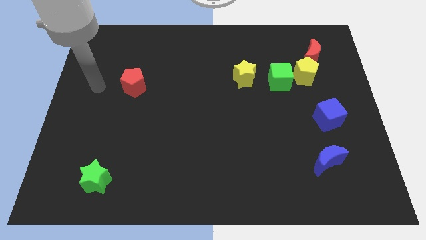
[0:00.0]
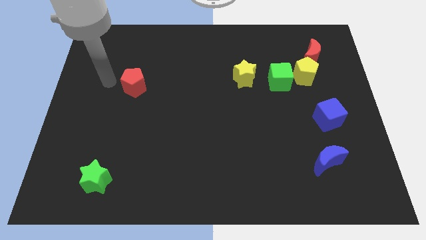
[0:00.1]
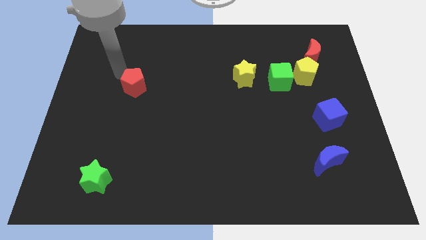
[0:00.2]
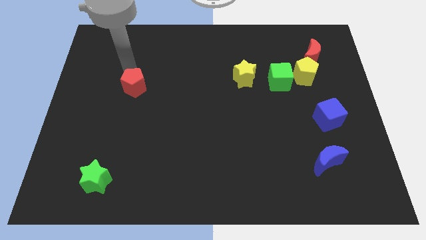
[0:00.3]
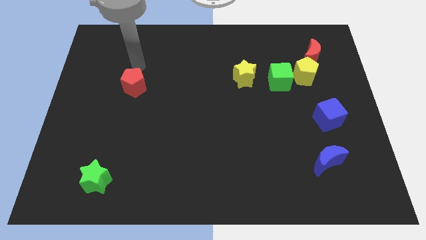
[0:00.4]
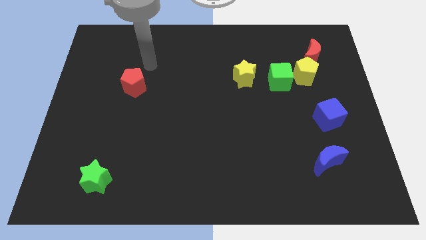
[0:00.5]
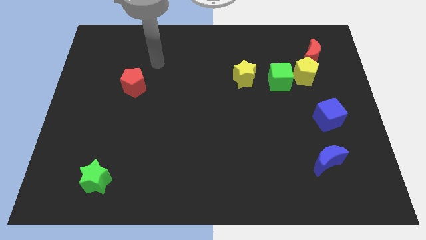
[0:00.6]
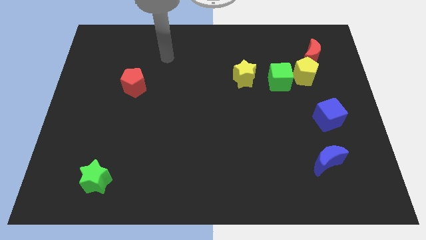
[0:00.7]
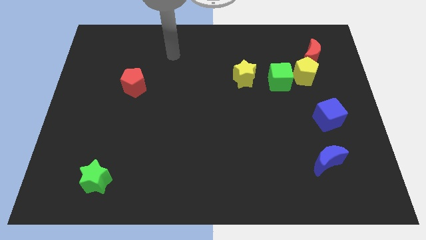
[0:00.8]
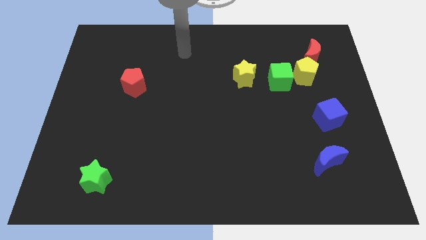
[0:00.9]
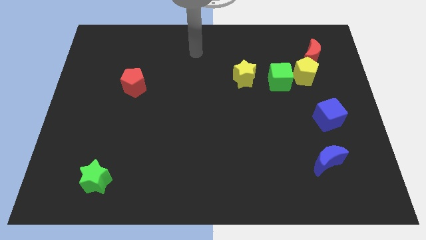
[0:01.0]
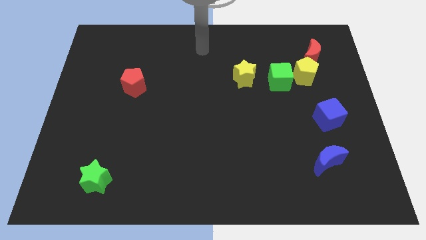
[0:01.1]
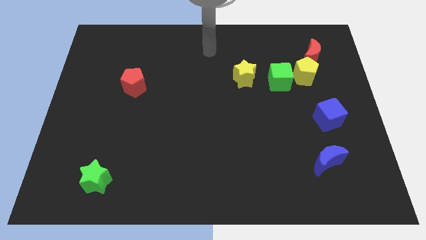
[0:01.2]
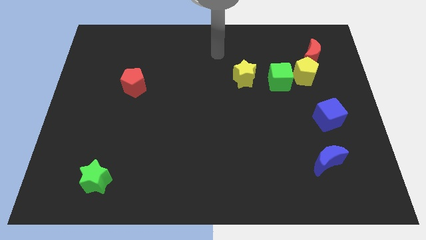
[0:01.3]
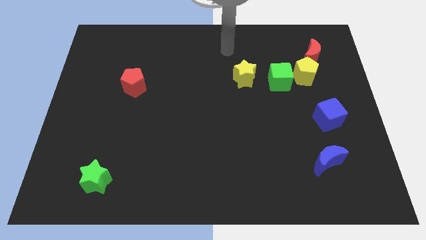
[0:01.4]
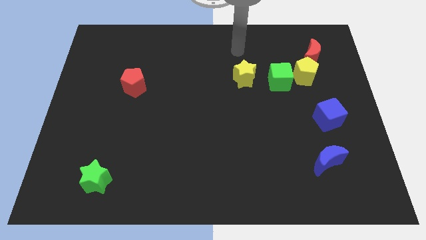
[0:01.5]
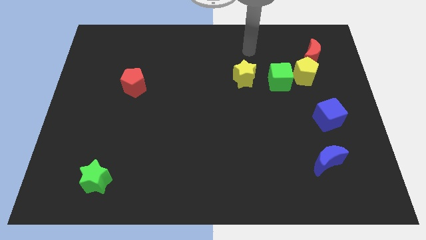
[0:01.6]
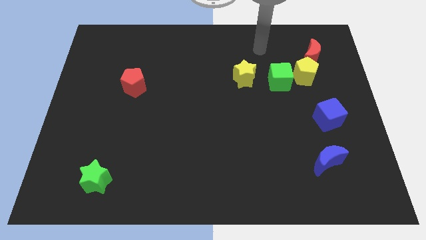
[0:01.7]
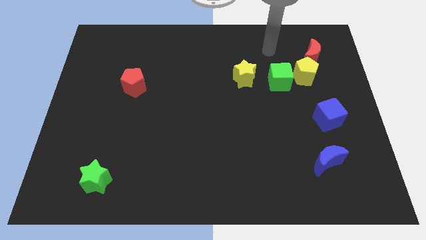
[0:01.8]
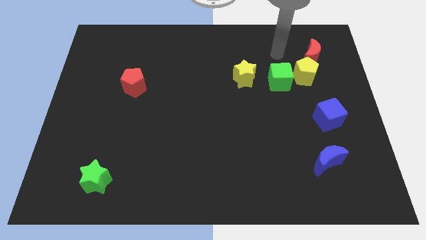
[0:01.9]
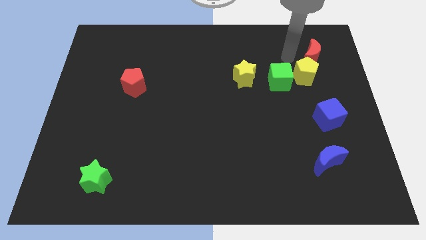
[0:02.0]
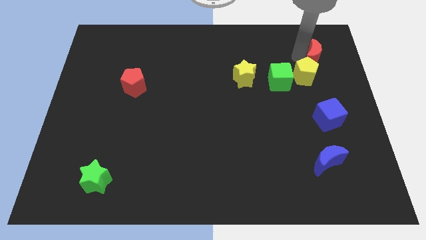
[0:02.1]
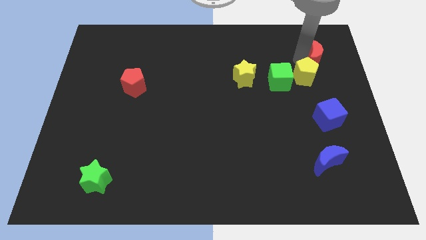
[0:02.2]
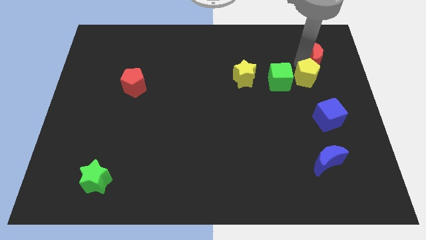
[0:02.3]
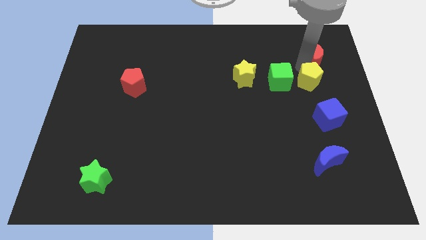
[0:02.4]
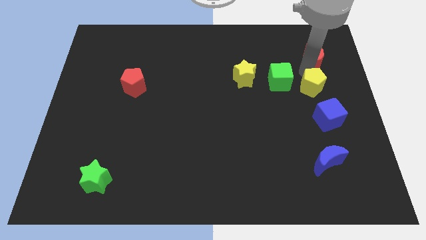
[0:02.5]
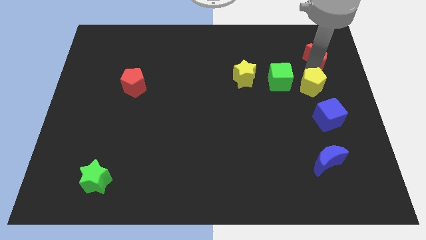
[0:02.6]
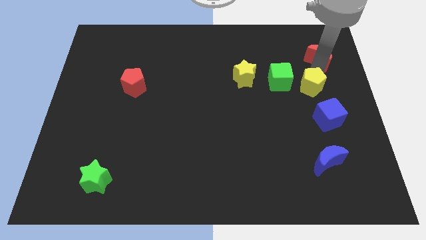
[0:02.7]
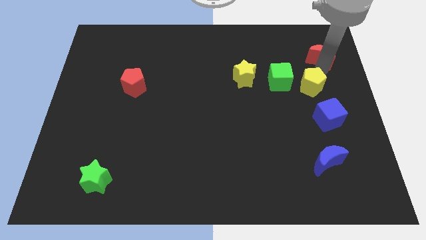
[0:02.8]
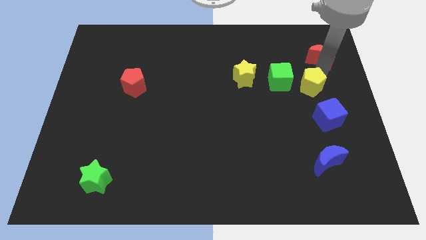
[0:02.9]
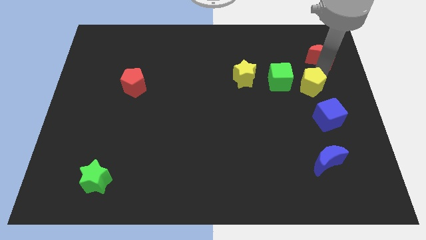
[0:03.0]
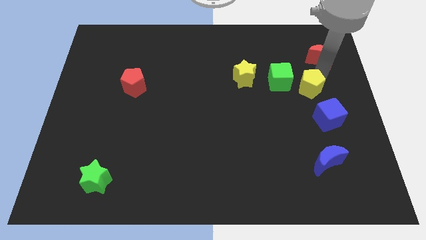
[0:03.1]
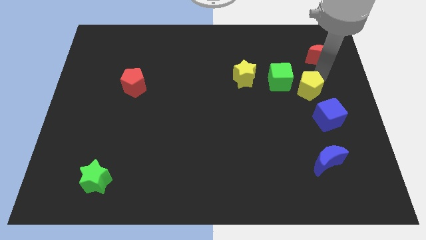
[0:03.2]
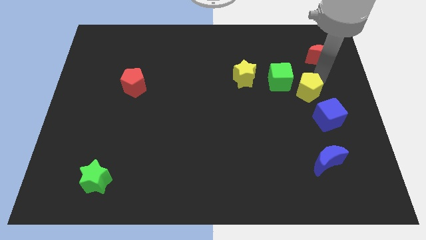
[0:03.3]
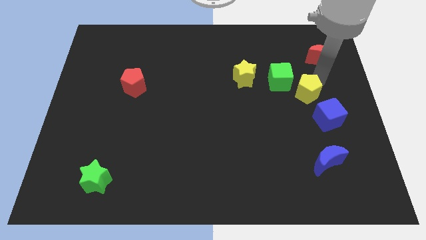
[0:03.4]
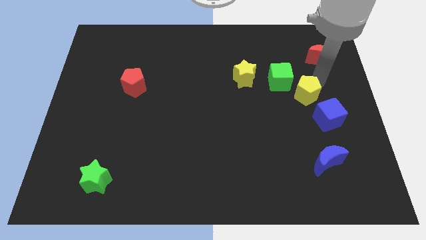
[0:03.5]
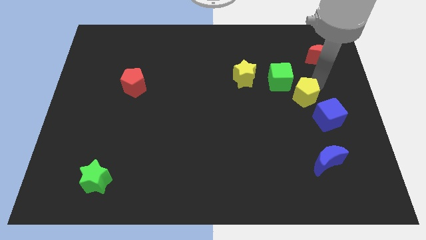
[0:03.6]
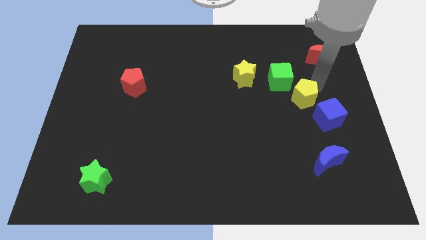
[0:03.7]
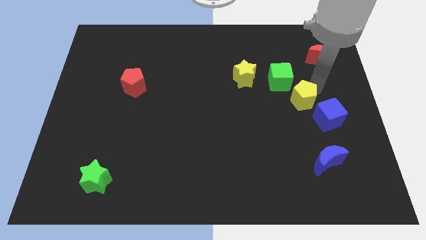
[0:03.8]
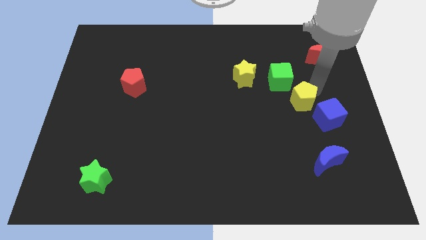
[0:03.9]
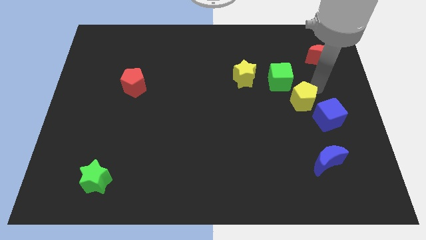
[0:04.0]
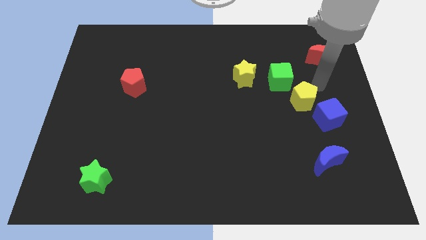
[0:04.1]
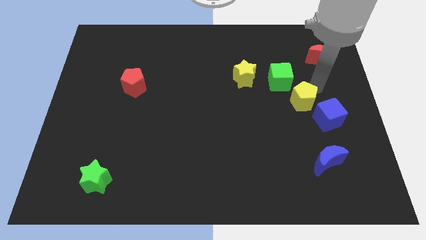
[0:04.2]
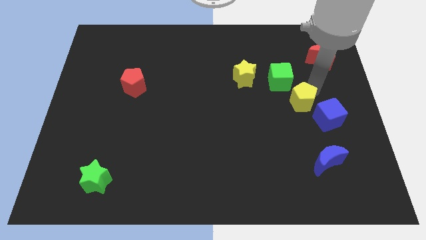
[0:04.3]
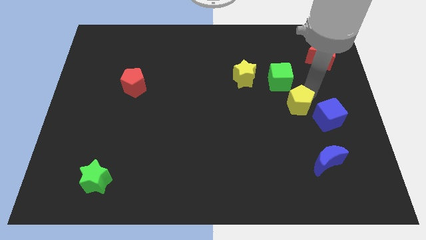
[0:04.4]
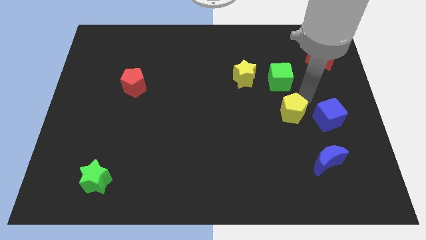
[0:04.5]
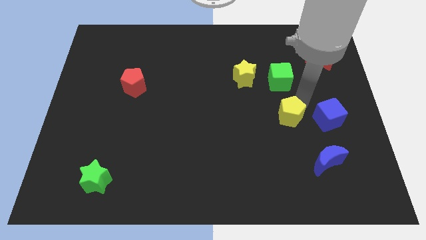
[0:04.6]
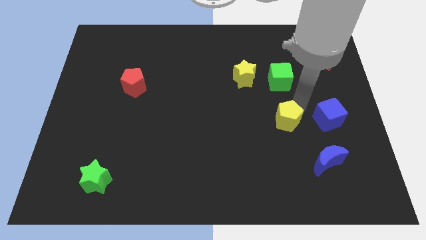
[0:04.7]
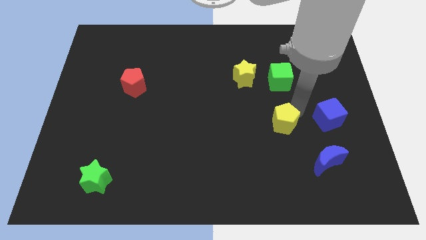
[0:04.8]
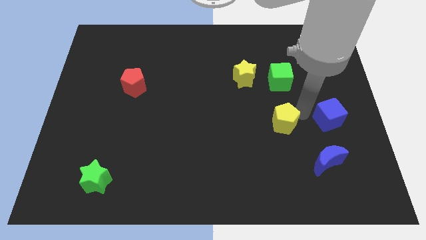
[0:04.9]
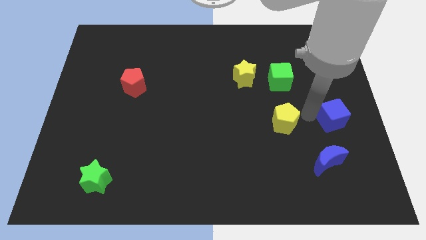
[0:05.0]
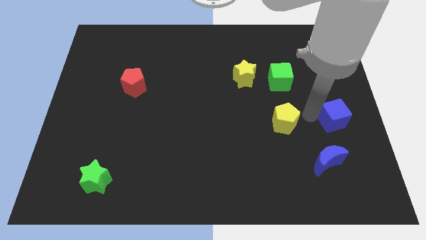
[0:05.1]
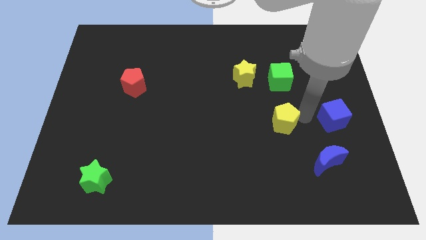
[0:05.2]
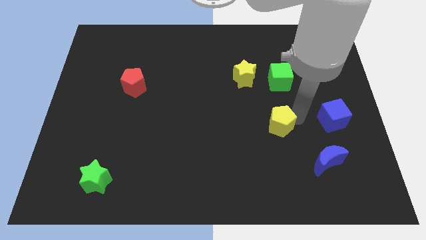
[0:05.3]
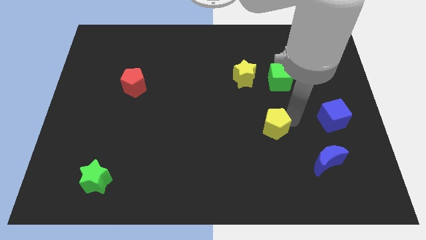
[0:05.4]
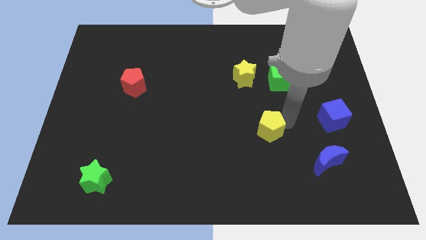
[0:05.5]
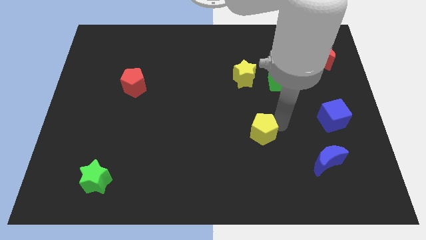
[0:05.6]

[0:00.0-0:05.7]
push the yellow pentagon down and then to the left

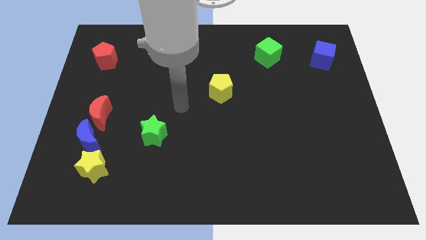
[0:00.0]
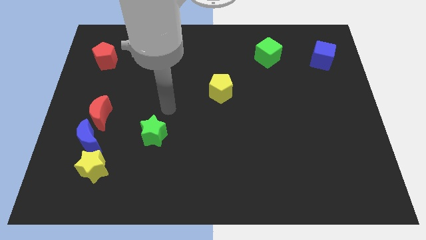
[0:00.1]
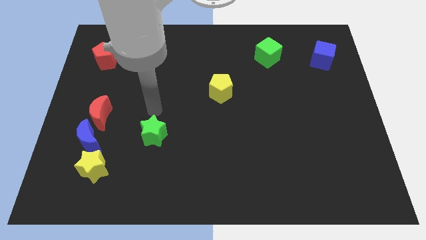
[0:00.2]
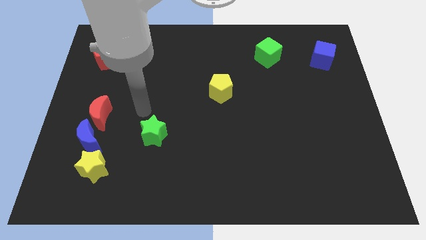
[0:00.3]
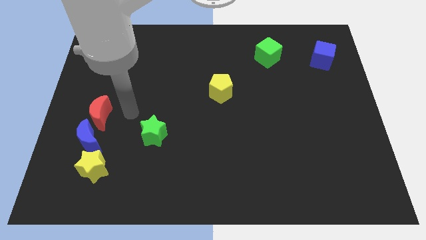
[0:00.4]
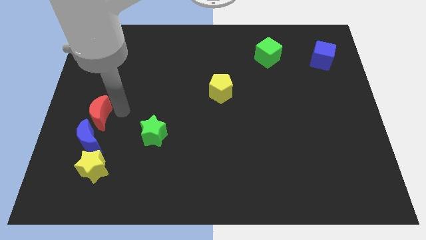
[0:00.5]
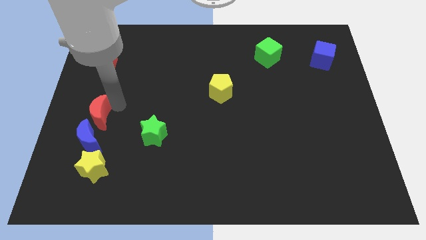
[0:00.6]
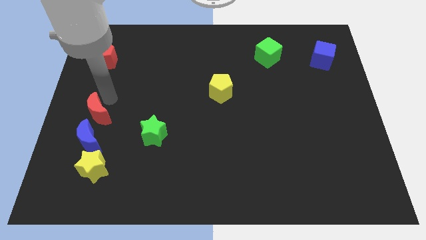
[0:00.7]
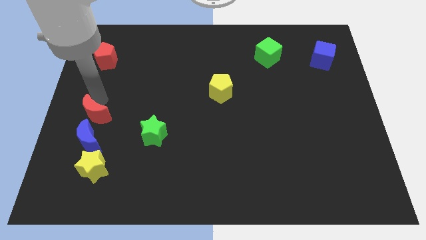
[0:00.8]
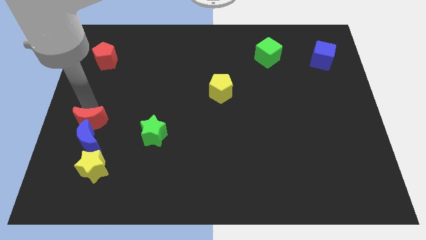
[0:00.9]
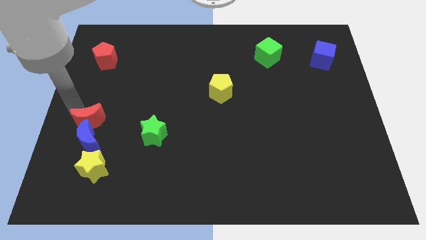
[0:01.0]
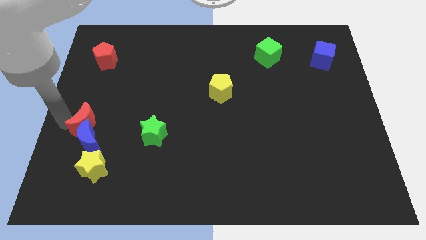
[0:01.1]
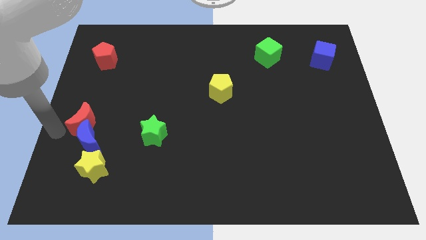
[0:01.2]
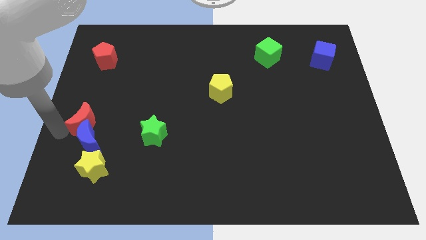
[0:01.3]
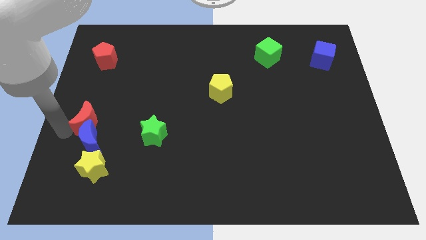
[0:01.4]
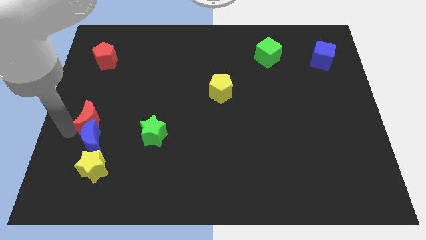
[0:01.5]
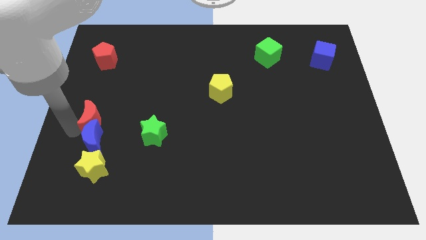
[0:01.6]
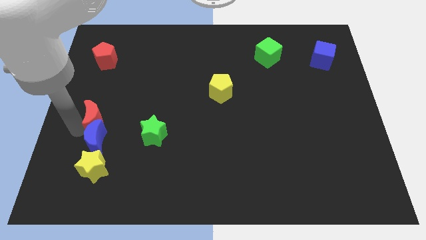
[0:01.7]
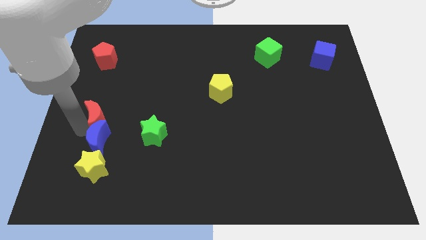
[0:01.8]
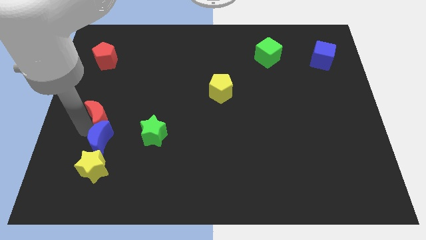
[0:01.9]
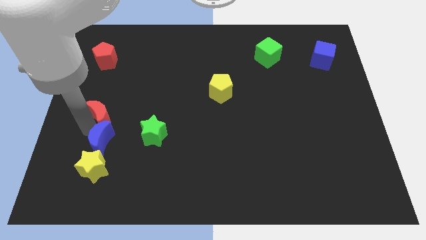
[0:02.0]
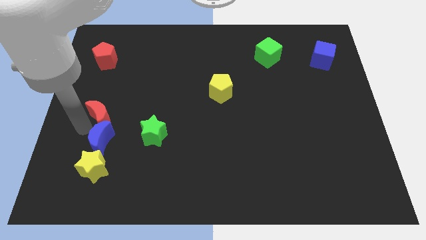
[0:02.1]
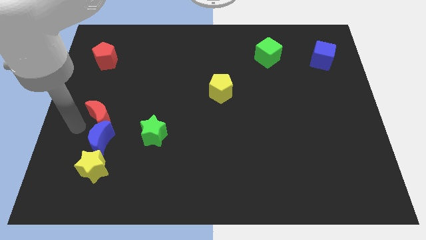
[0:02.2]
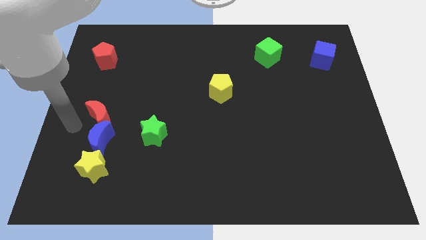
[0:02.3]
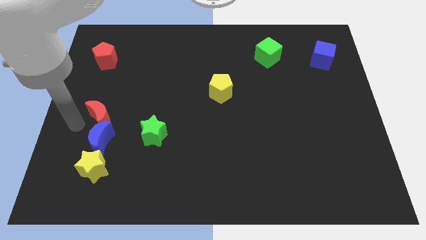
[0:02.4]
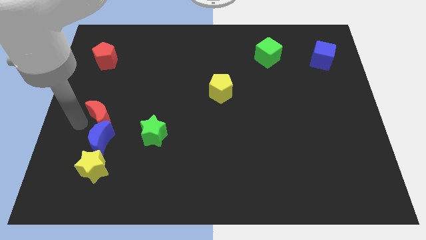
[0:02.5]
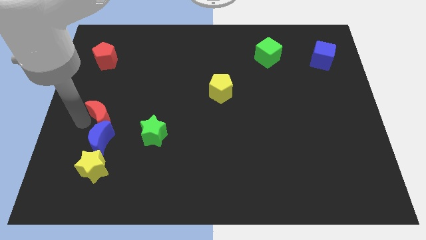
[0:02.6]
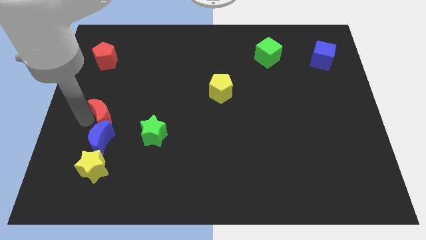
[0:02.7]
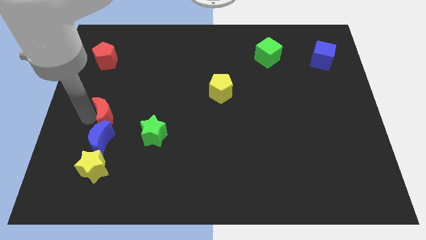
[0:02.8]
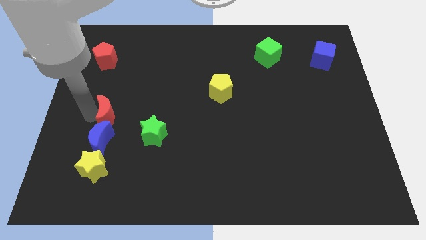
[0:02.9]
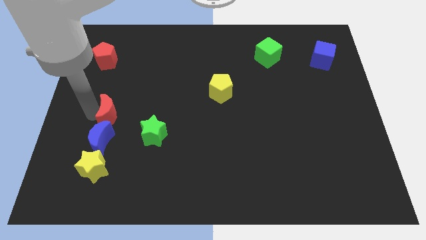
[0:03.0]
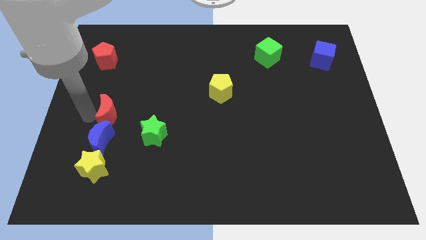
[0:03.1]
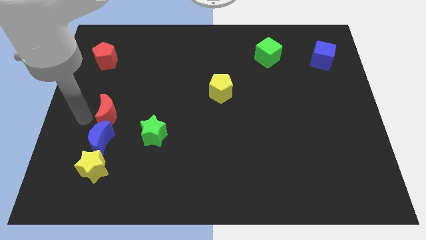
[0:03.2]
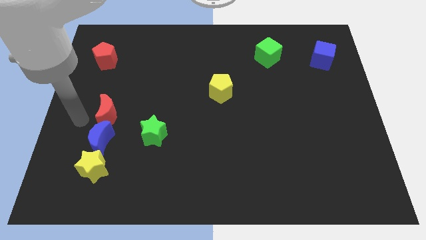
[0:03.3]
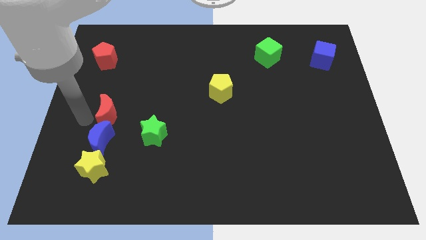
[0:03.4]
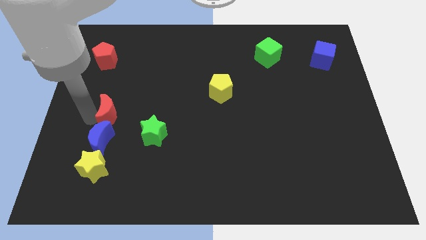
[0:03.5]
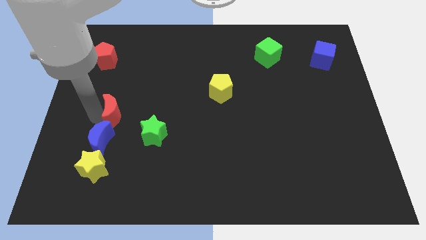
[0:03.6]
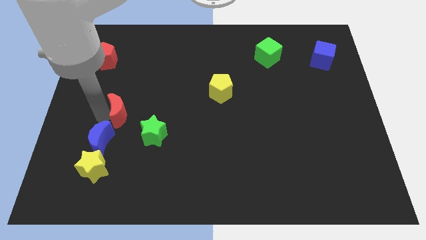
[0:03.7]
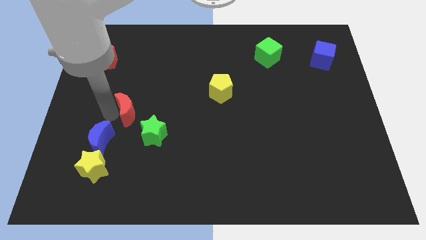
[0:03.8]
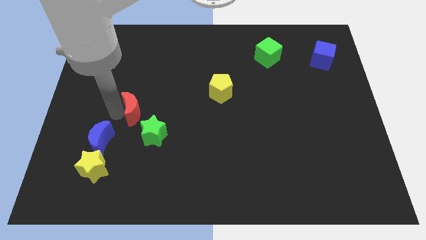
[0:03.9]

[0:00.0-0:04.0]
slightly move the red moon right
